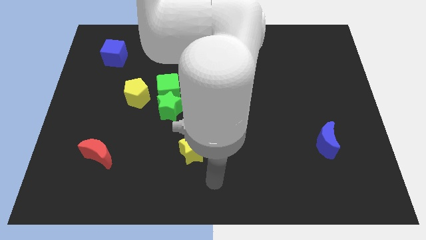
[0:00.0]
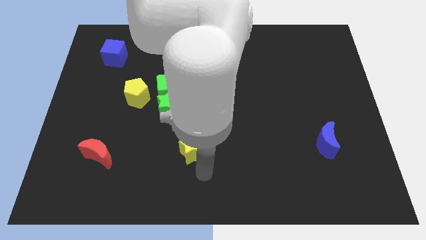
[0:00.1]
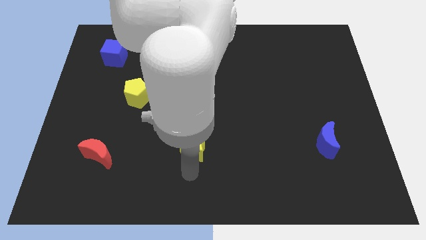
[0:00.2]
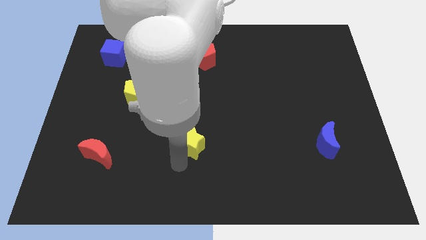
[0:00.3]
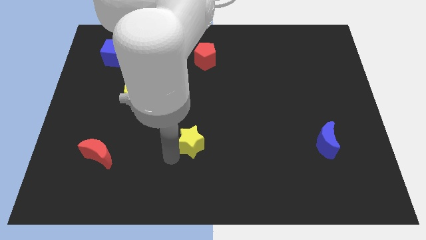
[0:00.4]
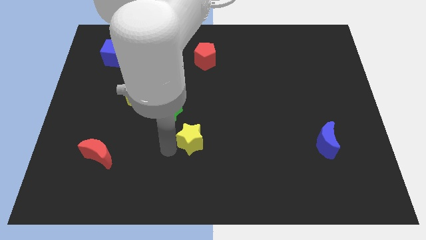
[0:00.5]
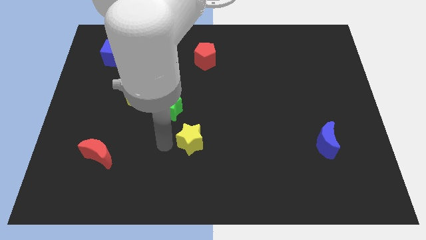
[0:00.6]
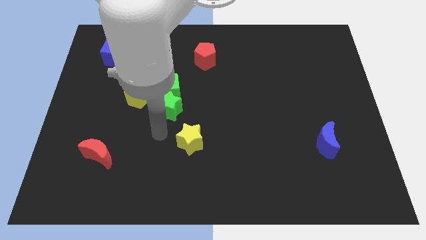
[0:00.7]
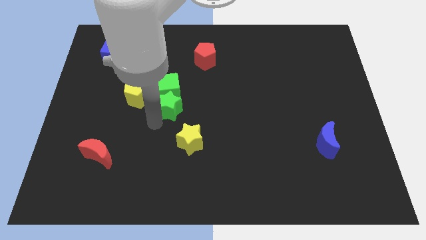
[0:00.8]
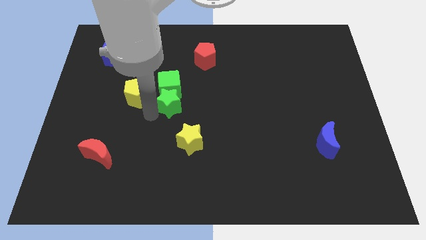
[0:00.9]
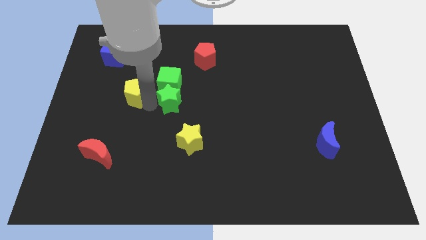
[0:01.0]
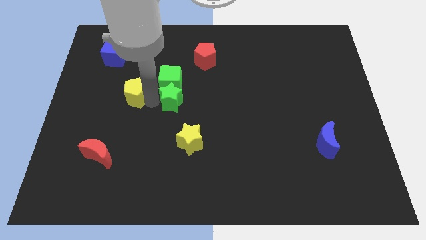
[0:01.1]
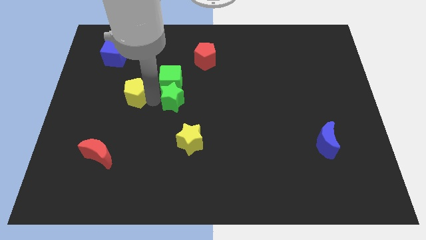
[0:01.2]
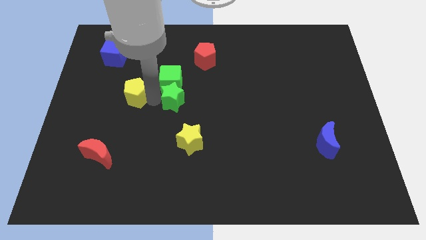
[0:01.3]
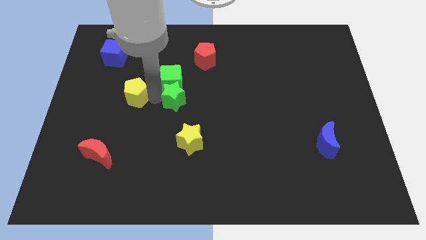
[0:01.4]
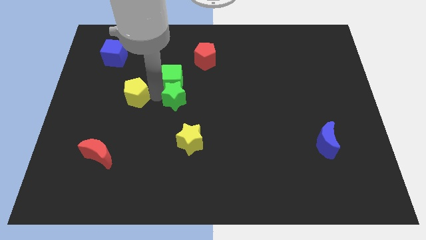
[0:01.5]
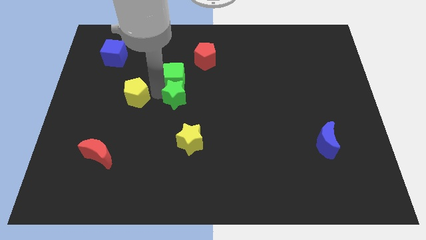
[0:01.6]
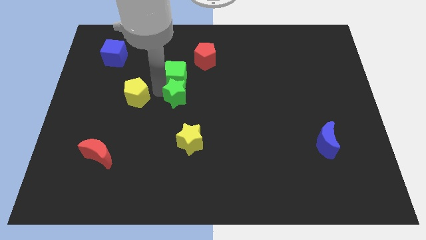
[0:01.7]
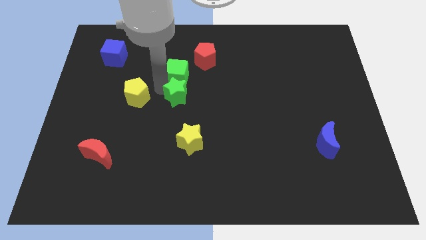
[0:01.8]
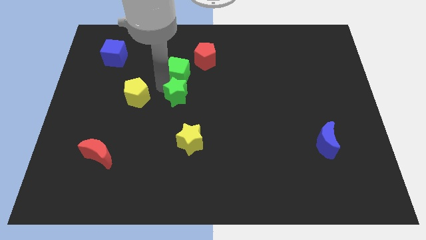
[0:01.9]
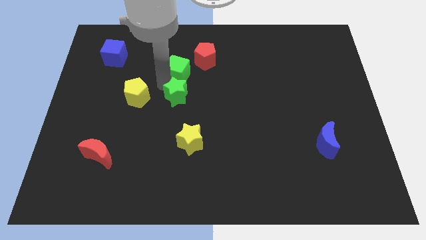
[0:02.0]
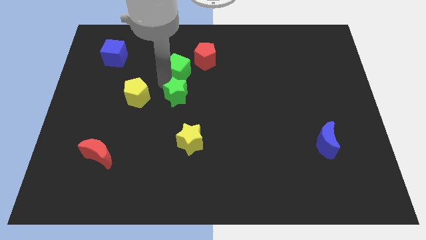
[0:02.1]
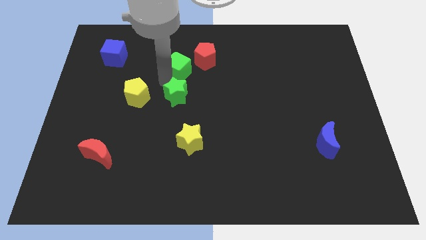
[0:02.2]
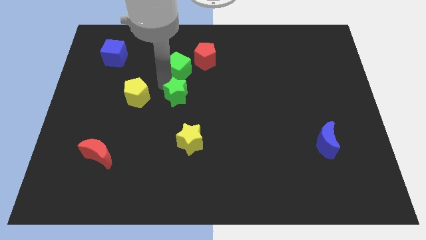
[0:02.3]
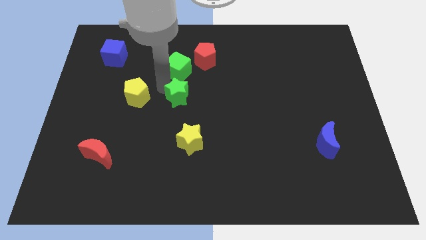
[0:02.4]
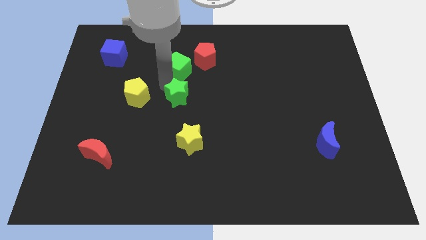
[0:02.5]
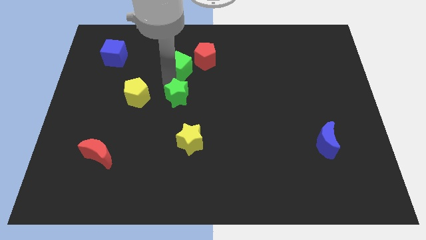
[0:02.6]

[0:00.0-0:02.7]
separate the green cube from the green star and yellow pentagon

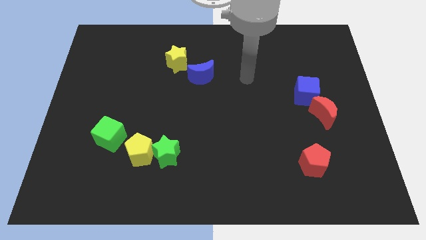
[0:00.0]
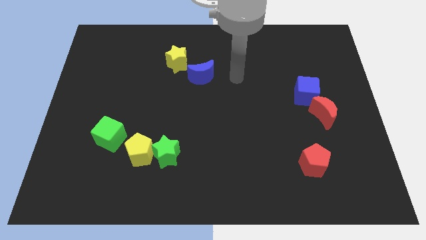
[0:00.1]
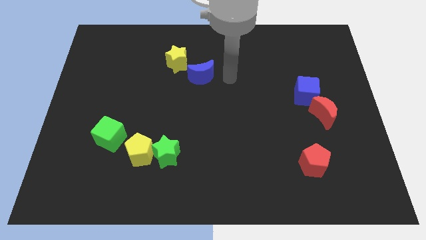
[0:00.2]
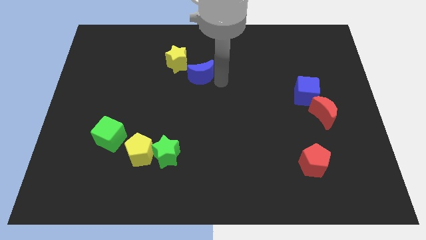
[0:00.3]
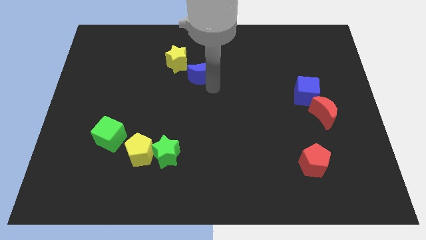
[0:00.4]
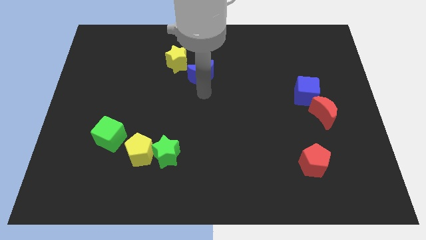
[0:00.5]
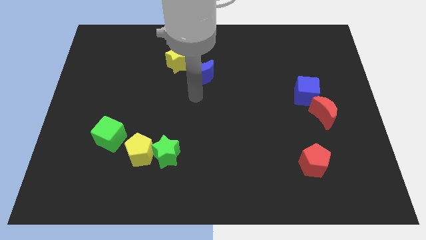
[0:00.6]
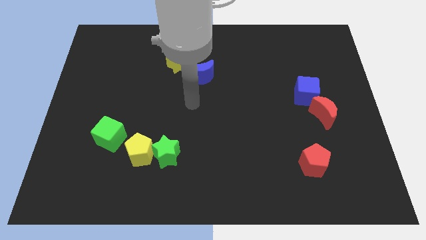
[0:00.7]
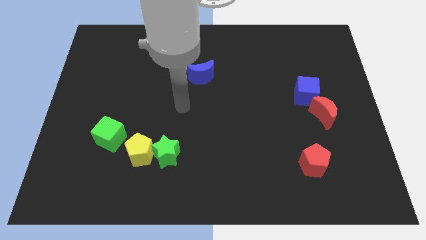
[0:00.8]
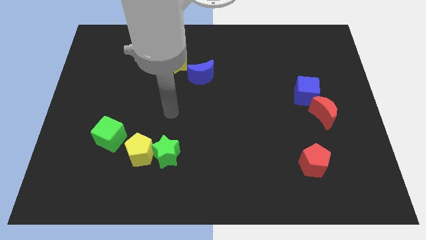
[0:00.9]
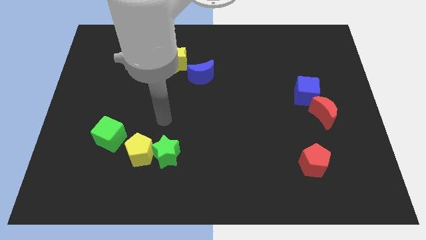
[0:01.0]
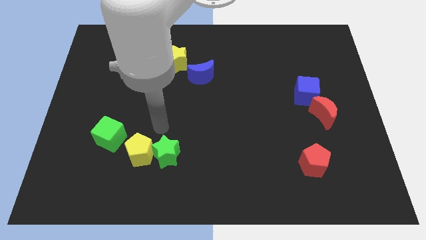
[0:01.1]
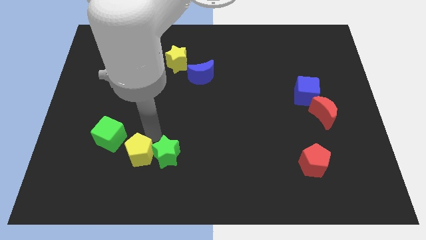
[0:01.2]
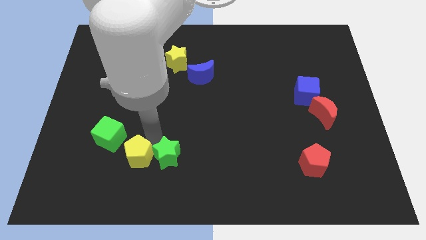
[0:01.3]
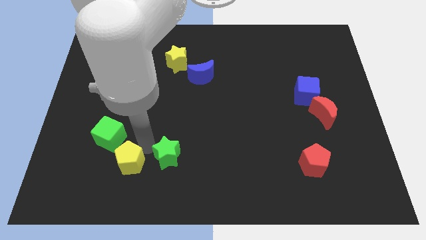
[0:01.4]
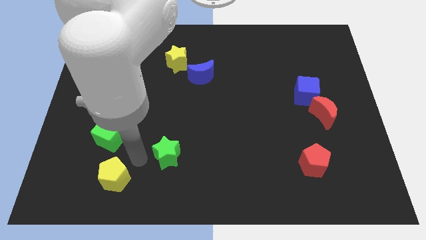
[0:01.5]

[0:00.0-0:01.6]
move the green star away from the yellow pentagon

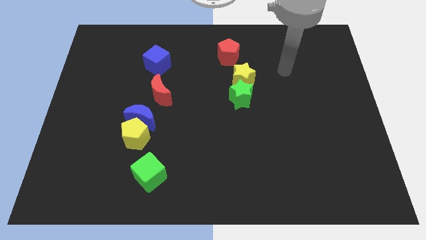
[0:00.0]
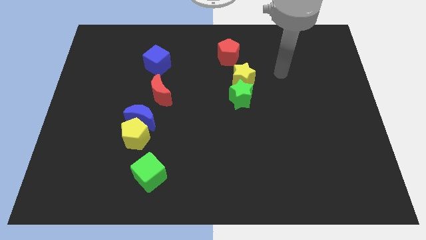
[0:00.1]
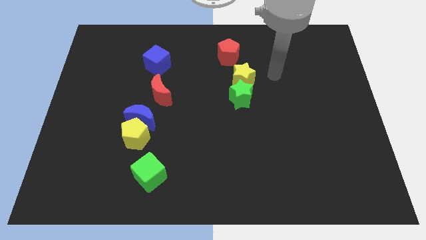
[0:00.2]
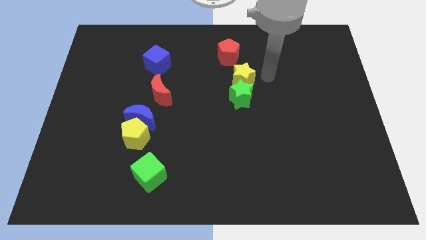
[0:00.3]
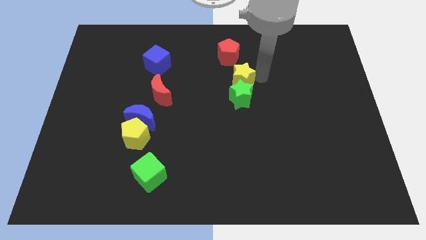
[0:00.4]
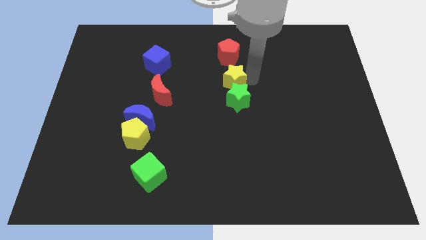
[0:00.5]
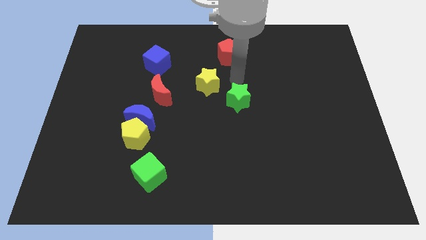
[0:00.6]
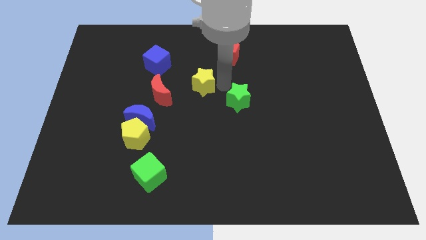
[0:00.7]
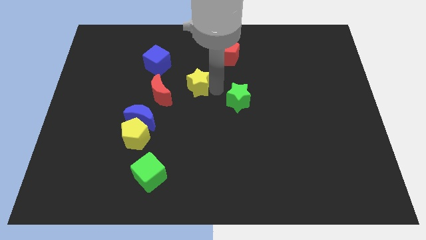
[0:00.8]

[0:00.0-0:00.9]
pull the green star apart from the yellow star

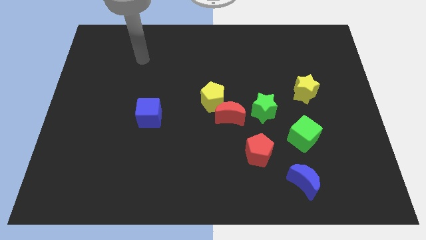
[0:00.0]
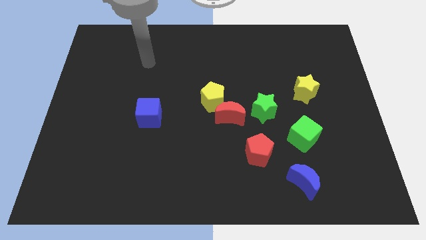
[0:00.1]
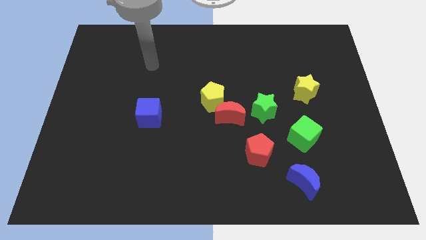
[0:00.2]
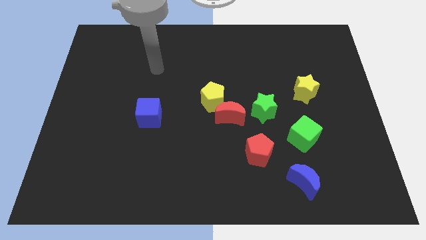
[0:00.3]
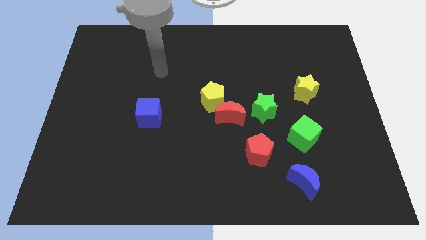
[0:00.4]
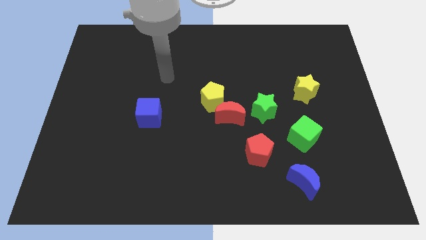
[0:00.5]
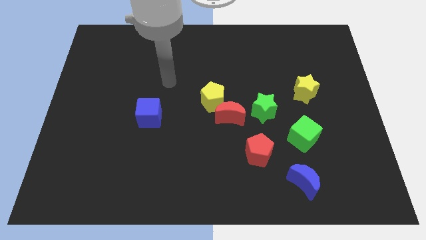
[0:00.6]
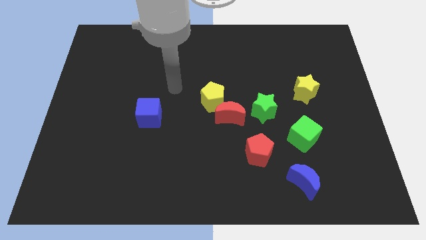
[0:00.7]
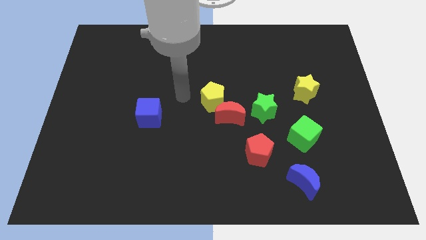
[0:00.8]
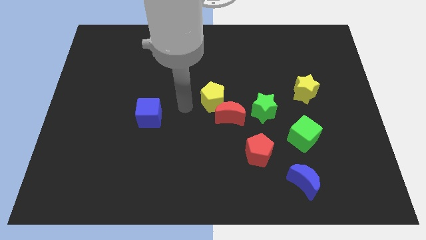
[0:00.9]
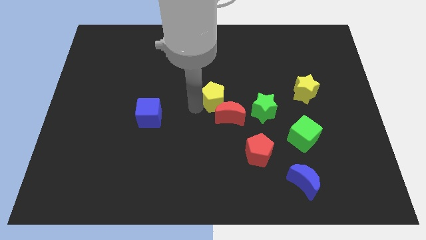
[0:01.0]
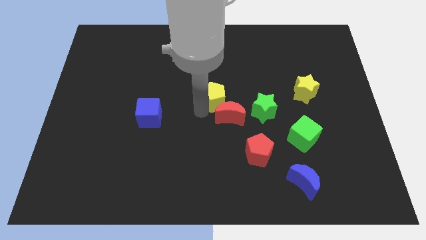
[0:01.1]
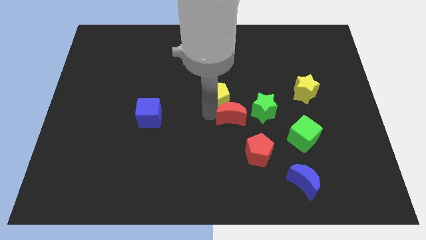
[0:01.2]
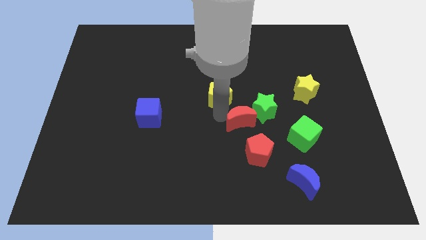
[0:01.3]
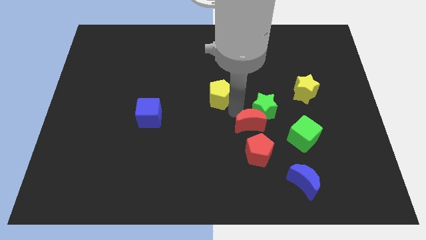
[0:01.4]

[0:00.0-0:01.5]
move the yellow pentagon away from the red moon

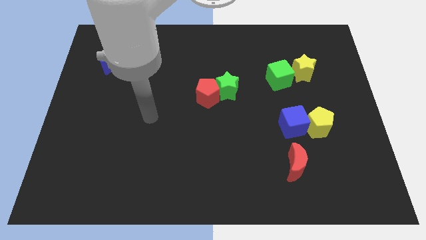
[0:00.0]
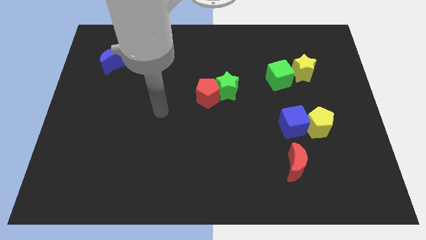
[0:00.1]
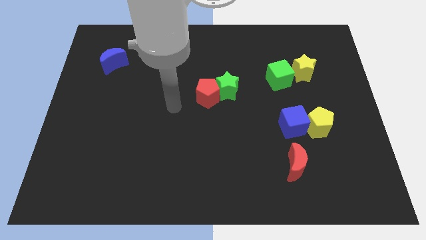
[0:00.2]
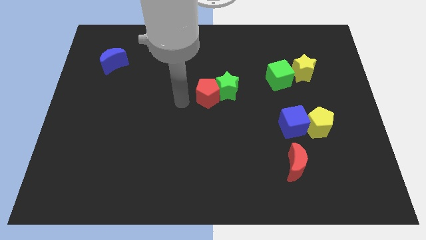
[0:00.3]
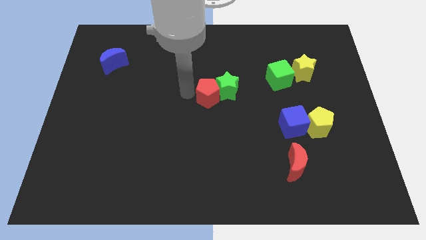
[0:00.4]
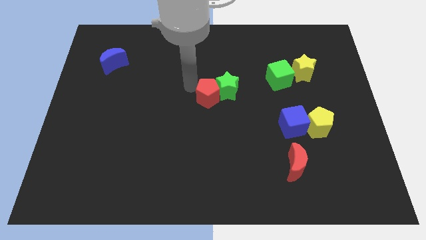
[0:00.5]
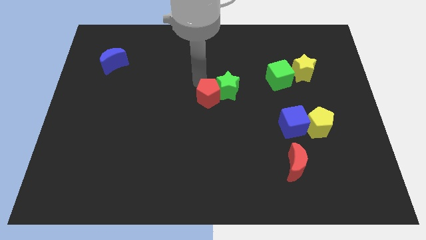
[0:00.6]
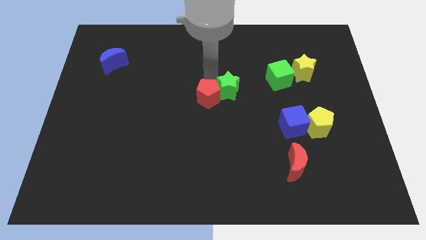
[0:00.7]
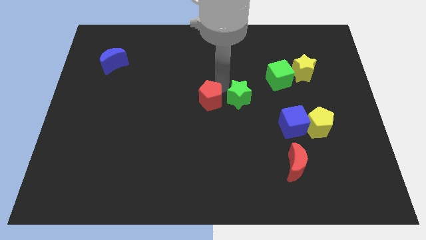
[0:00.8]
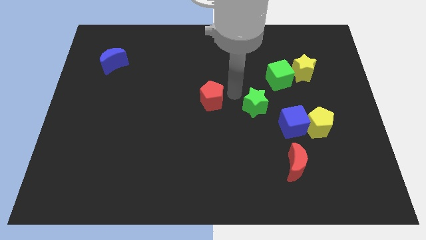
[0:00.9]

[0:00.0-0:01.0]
move the red pentagon away from the green star

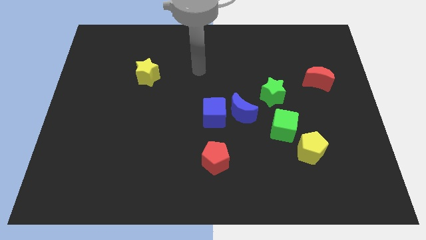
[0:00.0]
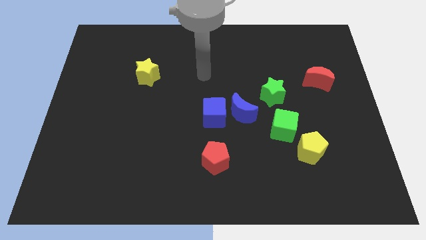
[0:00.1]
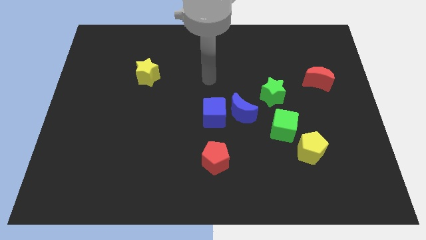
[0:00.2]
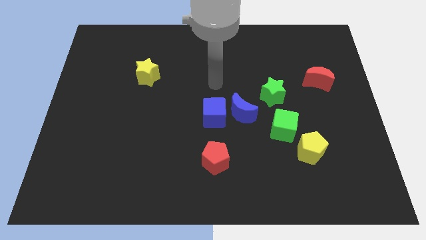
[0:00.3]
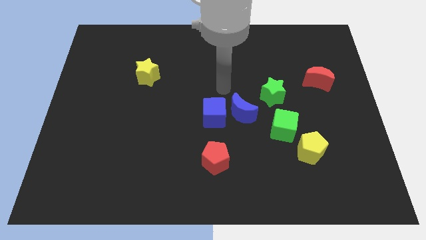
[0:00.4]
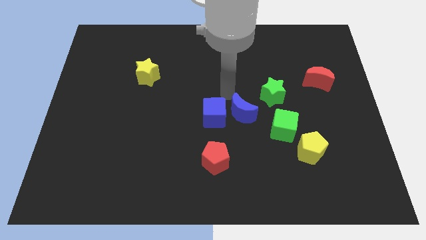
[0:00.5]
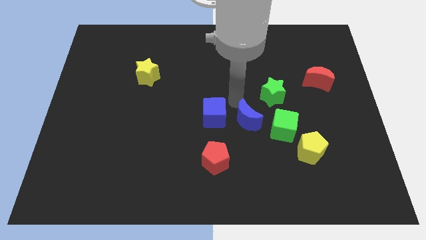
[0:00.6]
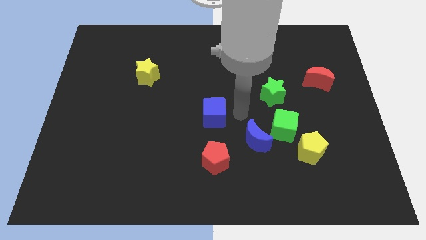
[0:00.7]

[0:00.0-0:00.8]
move the blue cube away from the blue moon

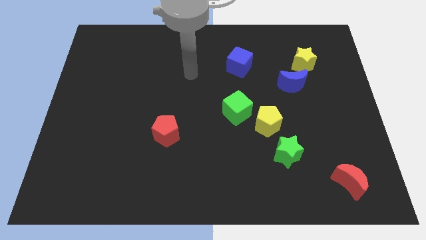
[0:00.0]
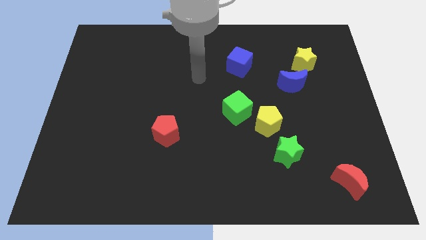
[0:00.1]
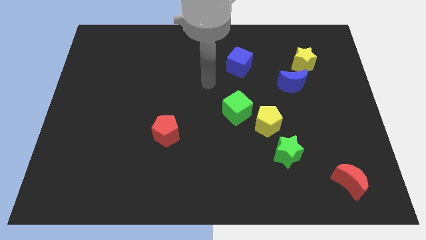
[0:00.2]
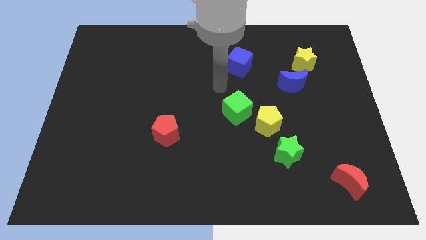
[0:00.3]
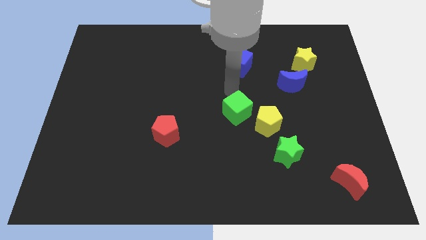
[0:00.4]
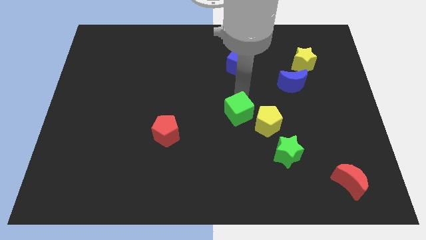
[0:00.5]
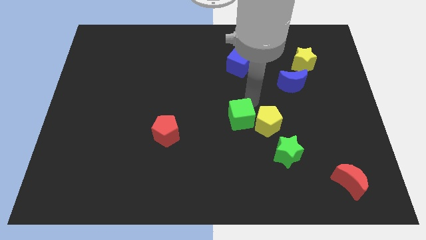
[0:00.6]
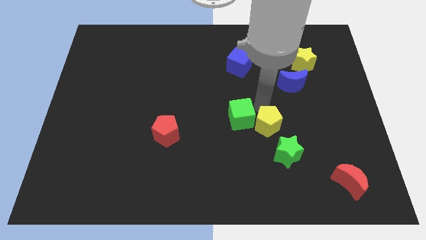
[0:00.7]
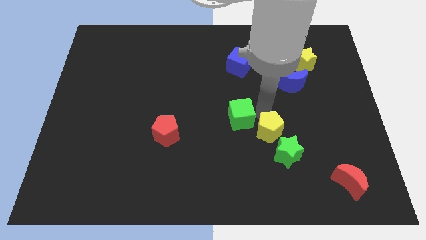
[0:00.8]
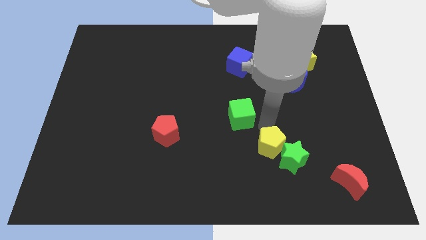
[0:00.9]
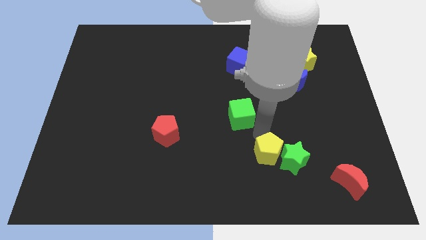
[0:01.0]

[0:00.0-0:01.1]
move the green cube away from the yellow pentagon
